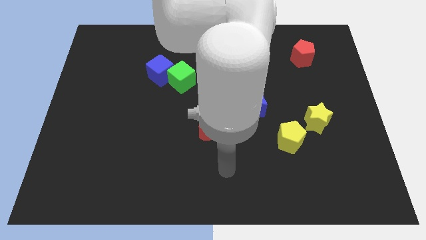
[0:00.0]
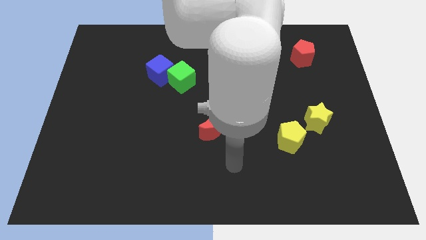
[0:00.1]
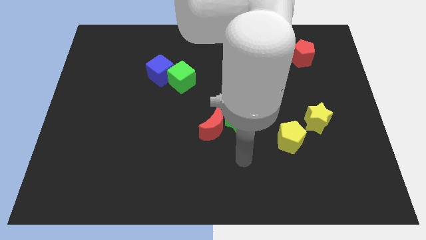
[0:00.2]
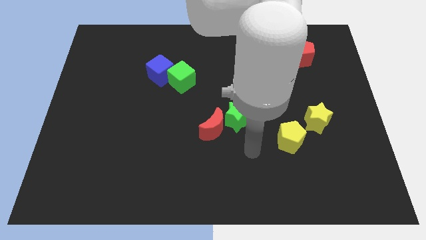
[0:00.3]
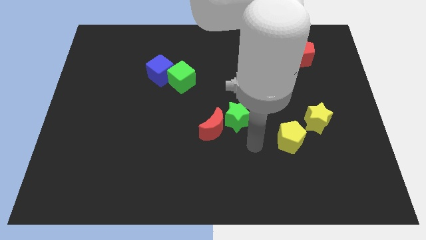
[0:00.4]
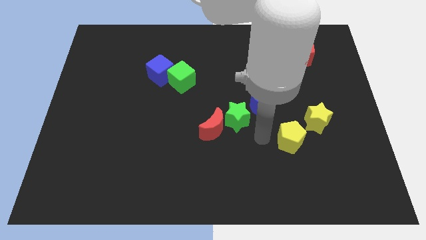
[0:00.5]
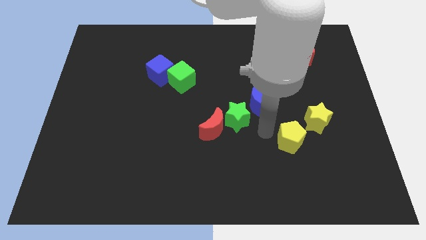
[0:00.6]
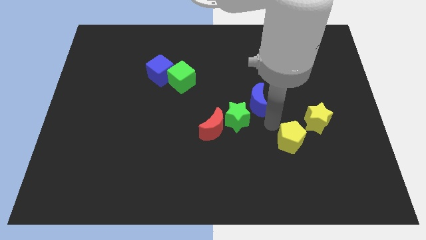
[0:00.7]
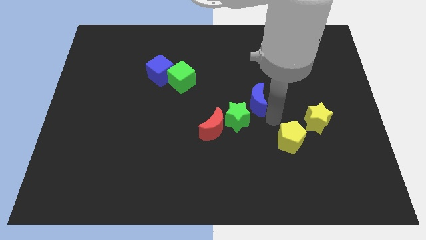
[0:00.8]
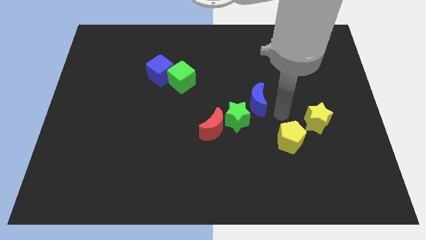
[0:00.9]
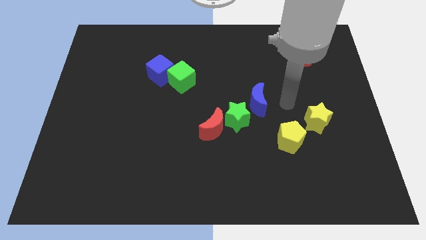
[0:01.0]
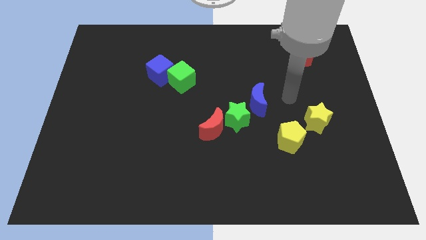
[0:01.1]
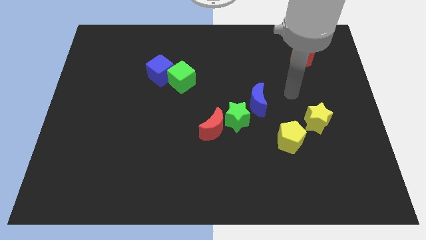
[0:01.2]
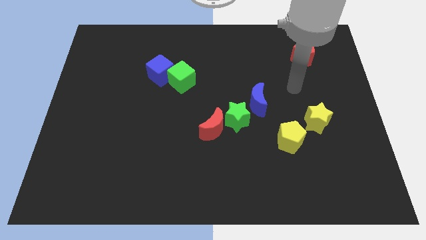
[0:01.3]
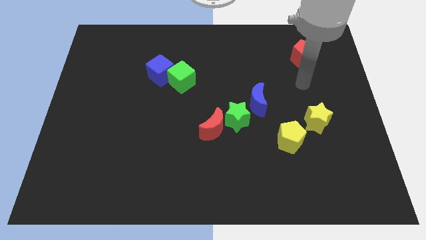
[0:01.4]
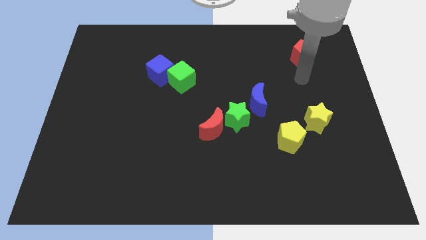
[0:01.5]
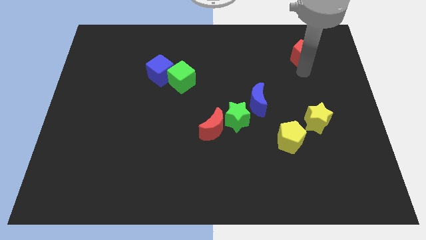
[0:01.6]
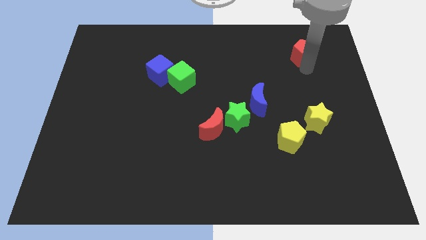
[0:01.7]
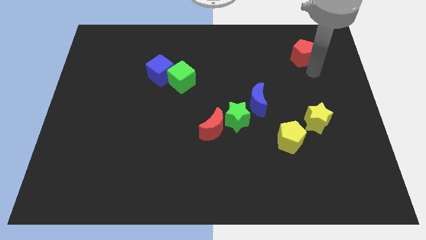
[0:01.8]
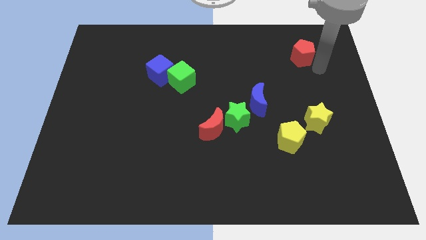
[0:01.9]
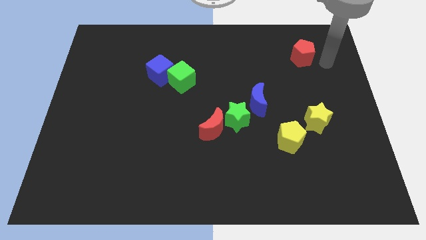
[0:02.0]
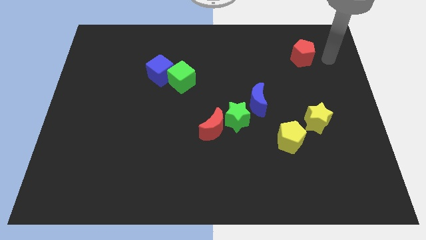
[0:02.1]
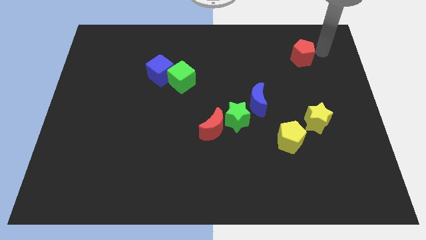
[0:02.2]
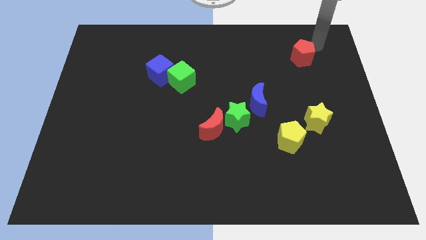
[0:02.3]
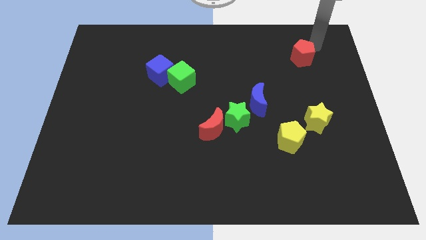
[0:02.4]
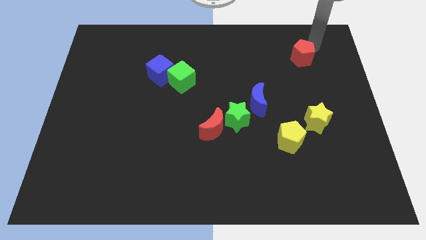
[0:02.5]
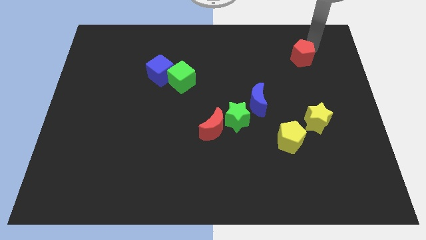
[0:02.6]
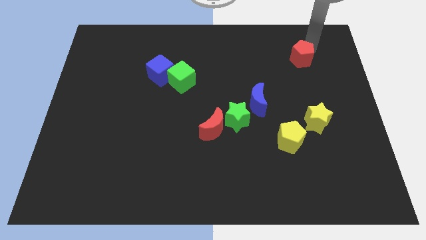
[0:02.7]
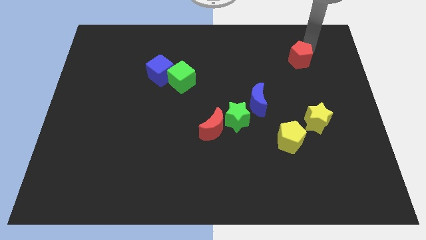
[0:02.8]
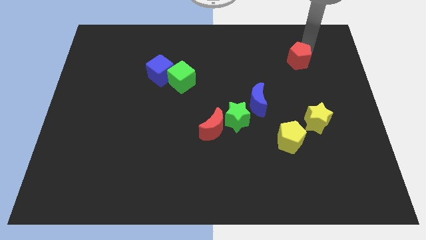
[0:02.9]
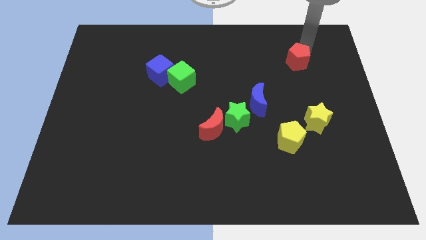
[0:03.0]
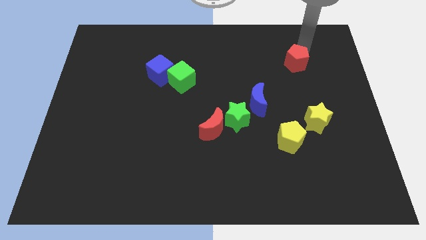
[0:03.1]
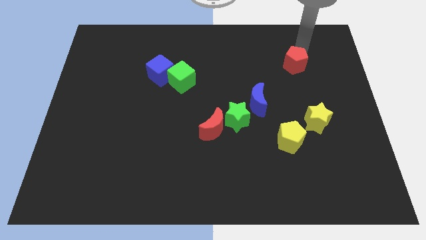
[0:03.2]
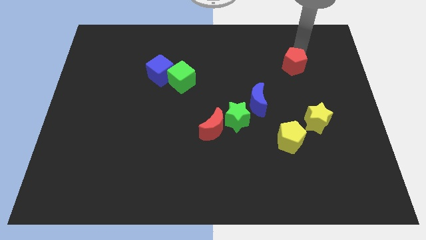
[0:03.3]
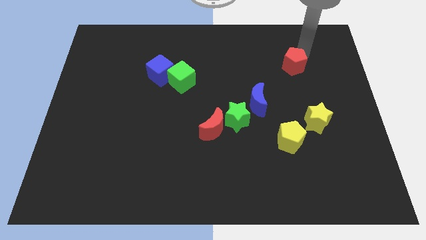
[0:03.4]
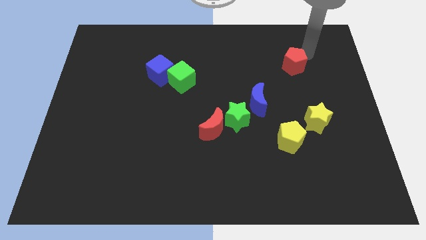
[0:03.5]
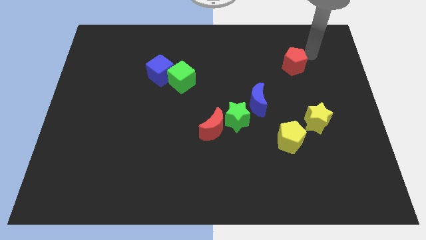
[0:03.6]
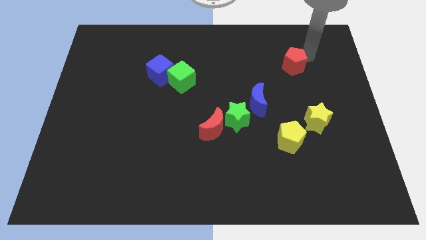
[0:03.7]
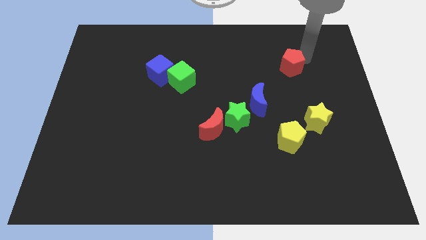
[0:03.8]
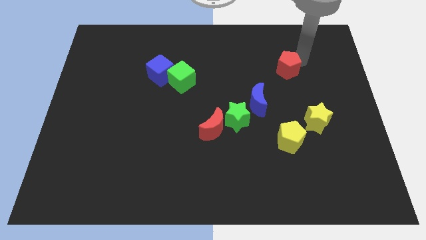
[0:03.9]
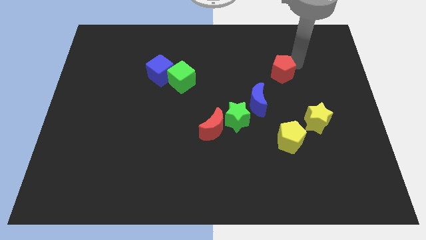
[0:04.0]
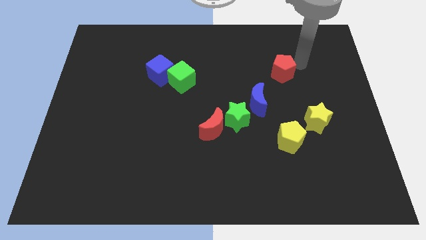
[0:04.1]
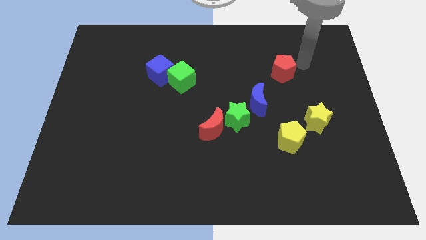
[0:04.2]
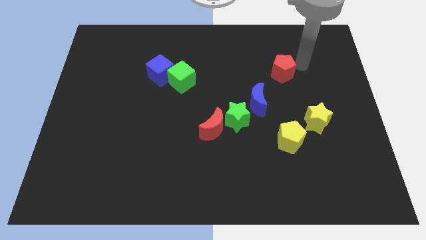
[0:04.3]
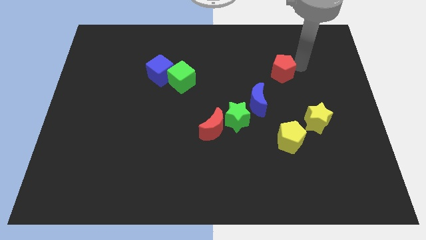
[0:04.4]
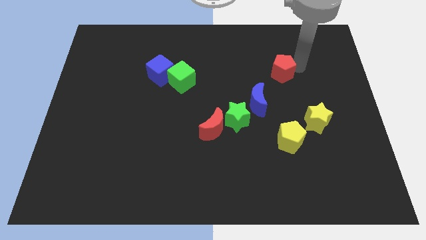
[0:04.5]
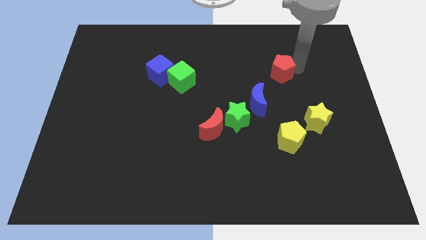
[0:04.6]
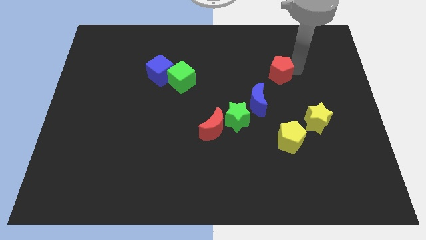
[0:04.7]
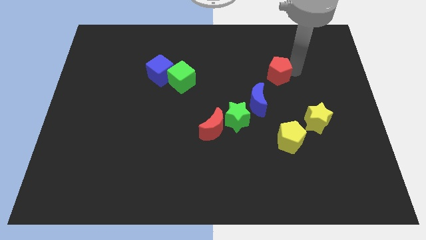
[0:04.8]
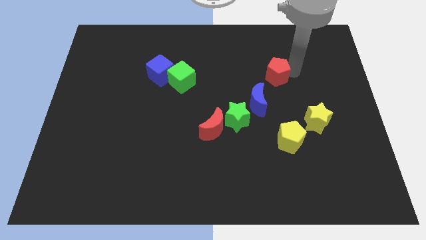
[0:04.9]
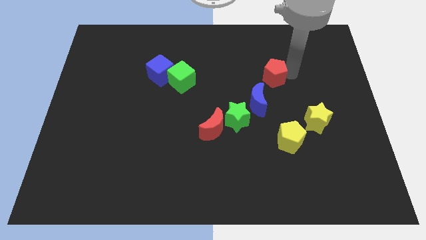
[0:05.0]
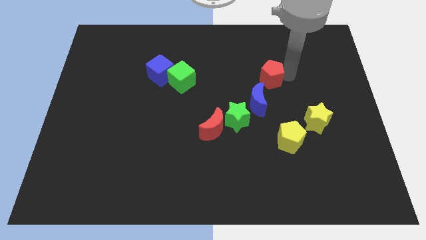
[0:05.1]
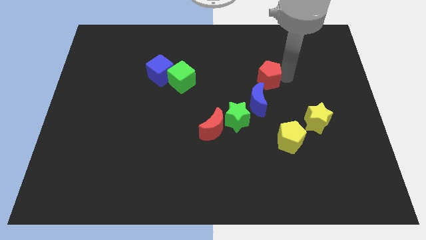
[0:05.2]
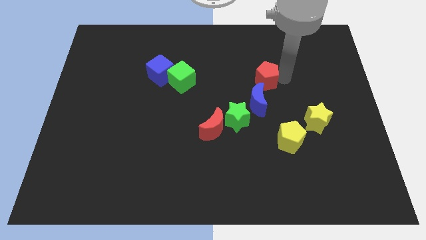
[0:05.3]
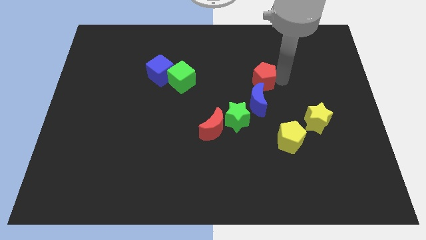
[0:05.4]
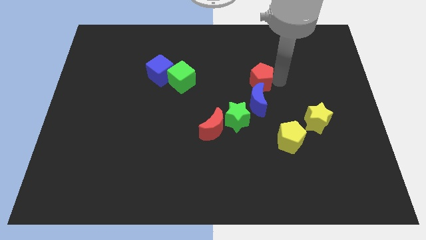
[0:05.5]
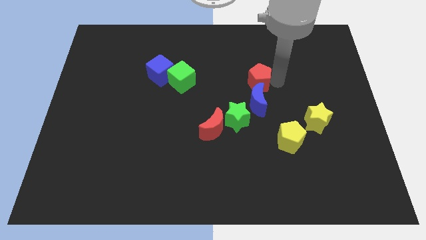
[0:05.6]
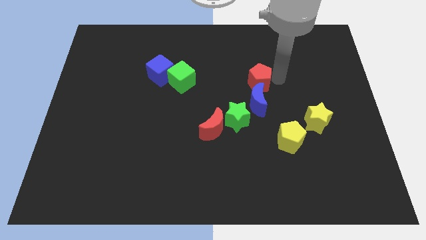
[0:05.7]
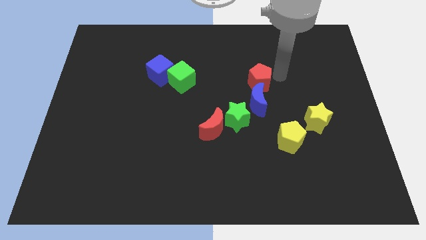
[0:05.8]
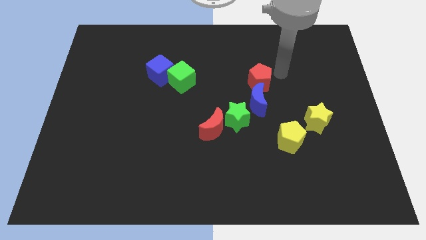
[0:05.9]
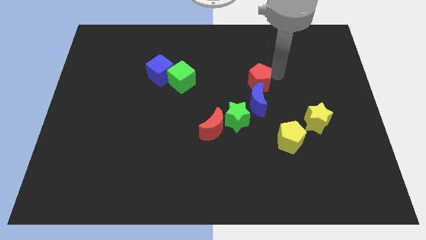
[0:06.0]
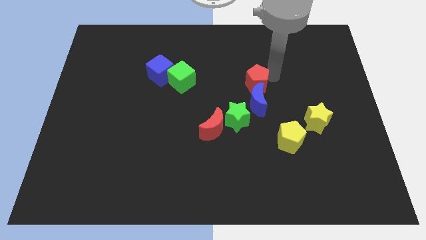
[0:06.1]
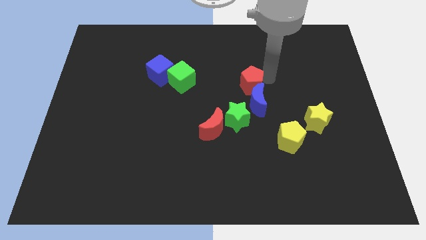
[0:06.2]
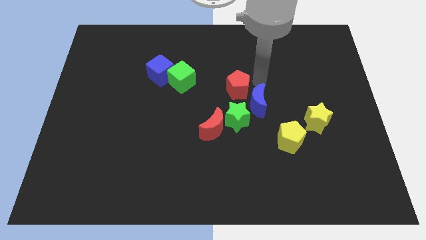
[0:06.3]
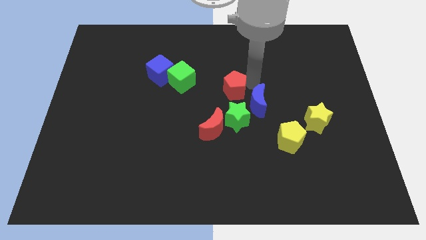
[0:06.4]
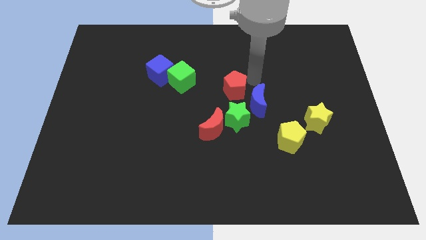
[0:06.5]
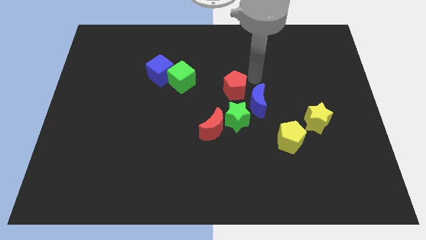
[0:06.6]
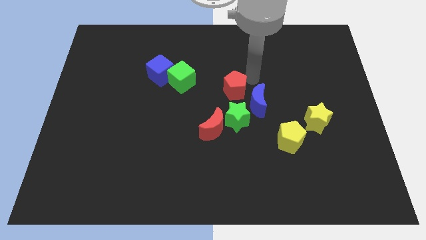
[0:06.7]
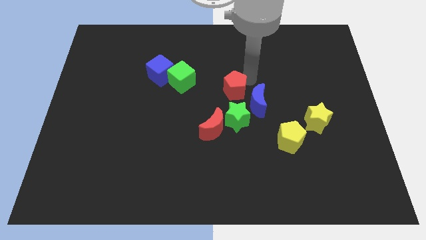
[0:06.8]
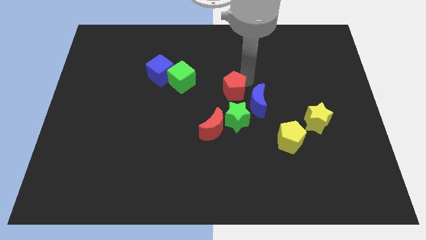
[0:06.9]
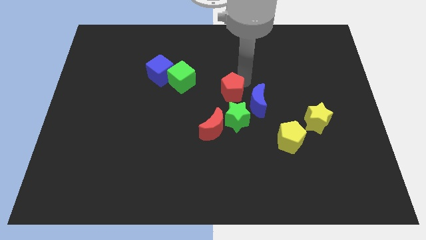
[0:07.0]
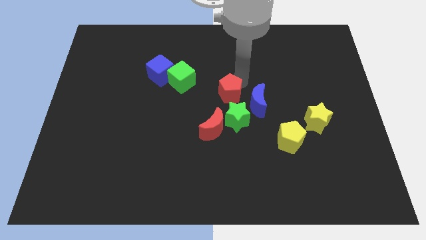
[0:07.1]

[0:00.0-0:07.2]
move the red pentagon to the top left of the green star

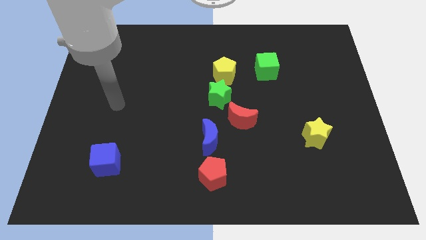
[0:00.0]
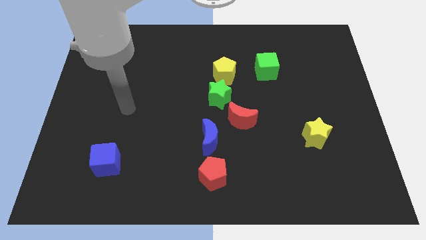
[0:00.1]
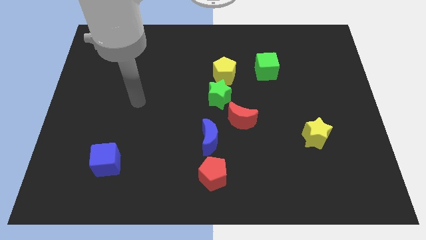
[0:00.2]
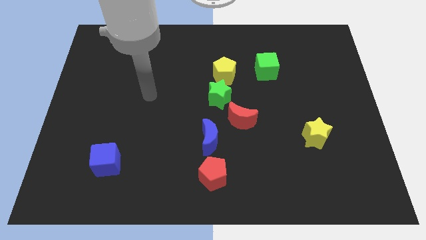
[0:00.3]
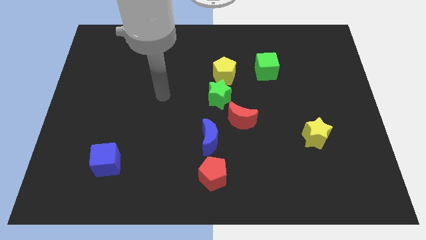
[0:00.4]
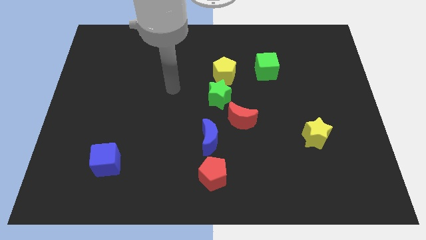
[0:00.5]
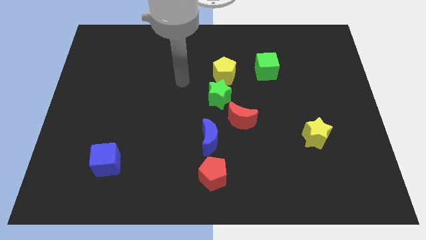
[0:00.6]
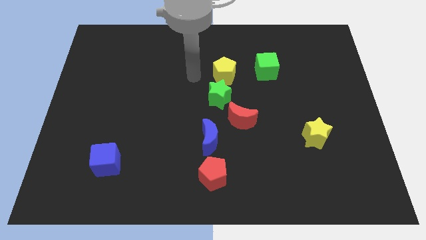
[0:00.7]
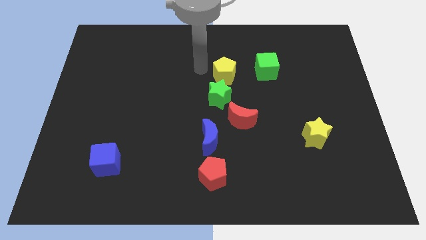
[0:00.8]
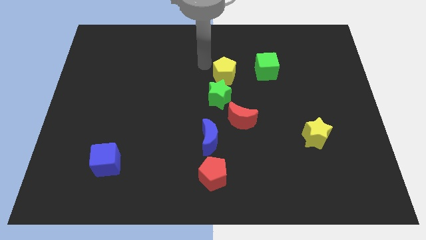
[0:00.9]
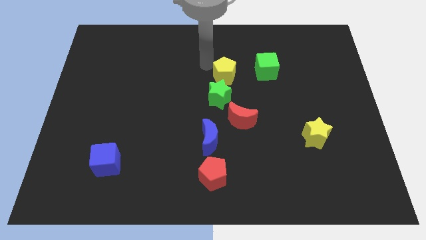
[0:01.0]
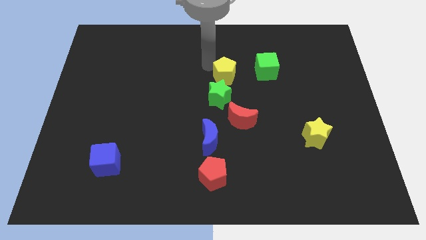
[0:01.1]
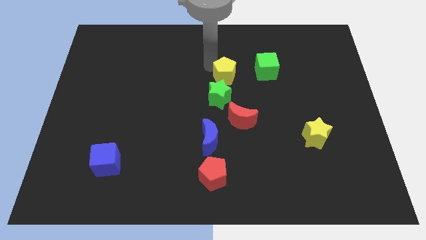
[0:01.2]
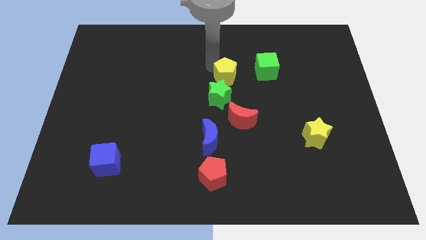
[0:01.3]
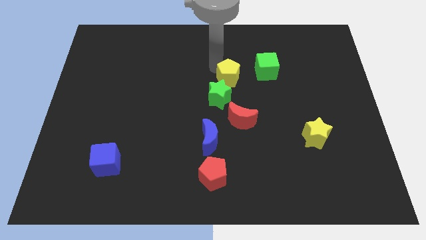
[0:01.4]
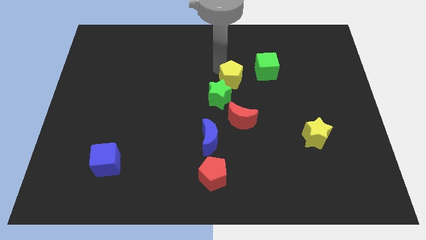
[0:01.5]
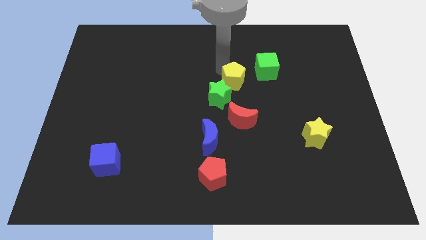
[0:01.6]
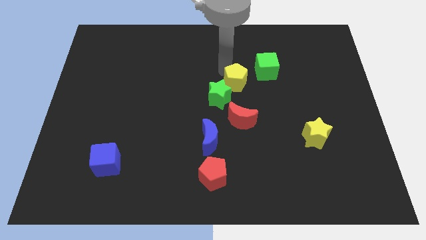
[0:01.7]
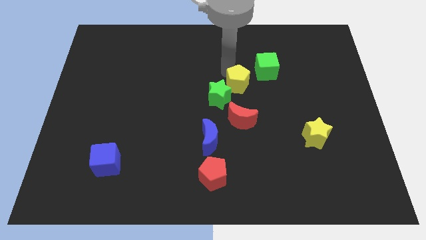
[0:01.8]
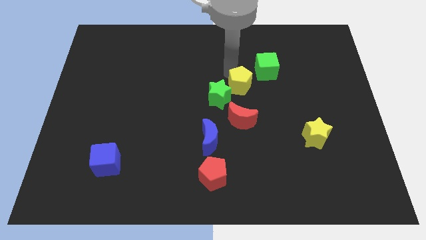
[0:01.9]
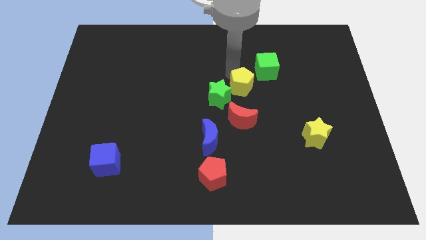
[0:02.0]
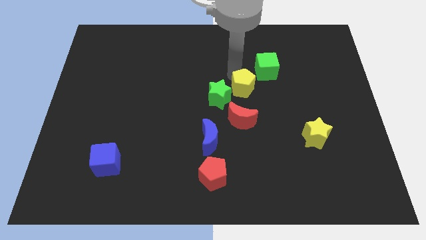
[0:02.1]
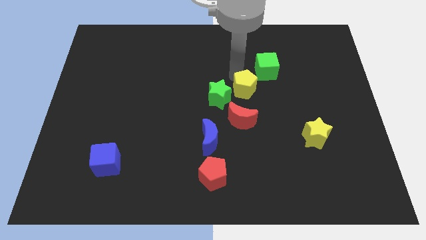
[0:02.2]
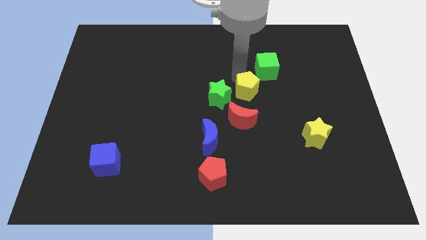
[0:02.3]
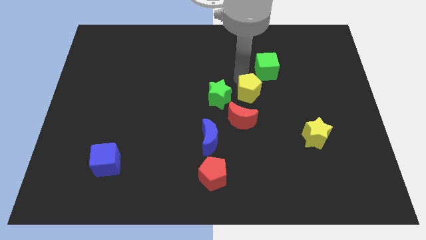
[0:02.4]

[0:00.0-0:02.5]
push the yellow pentagon below the green cube
